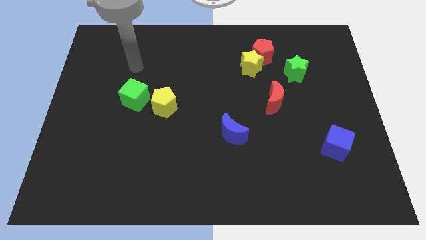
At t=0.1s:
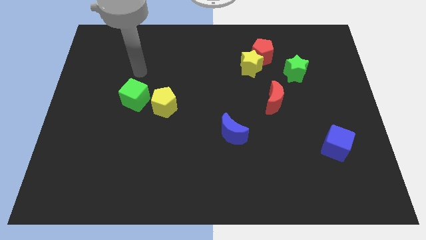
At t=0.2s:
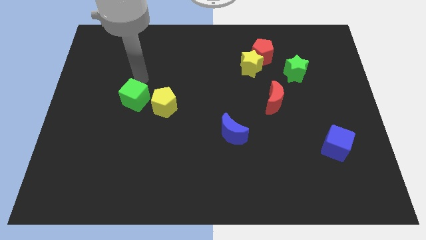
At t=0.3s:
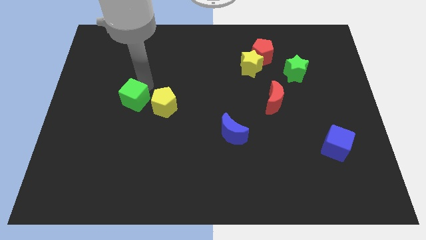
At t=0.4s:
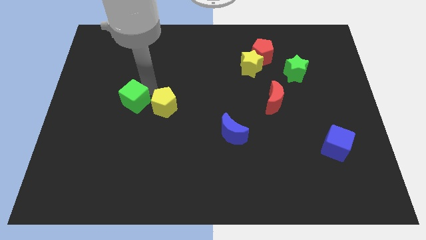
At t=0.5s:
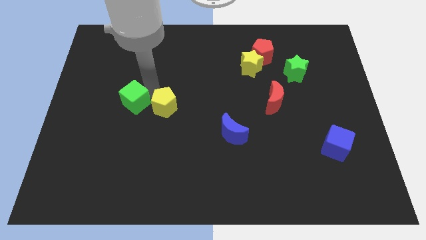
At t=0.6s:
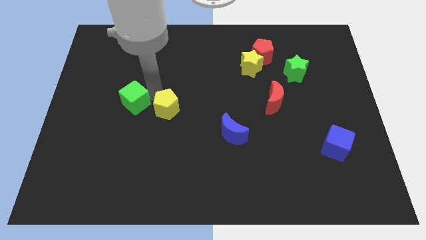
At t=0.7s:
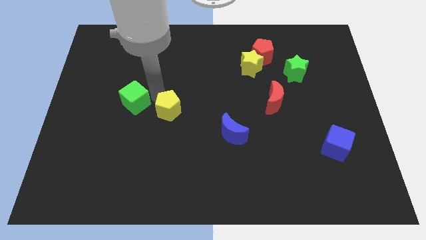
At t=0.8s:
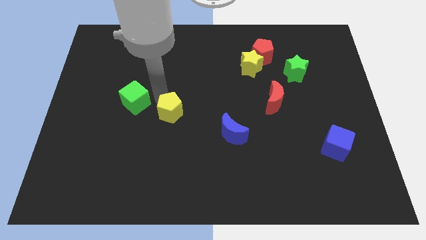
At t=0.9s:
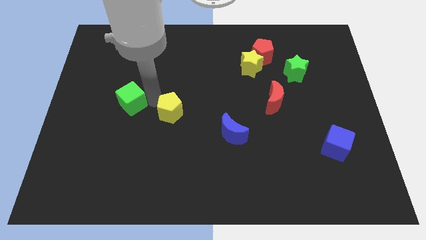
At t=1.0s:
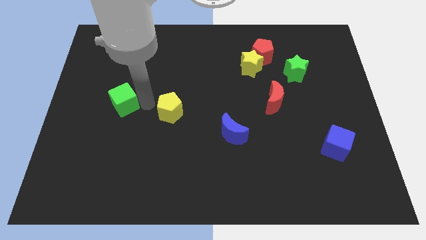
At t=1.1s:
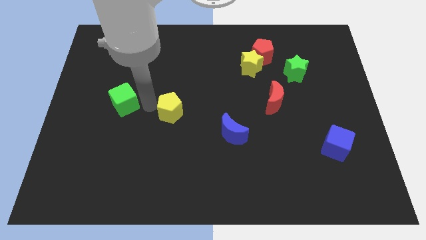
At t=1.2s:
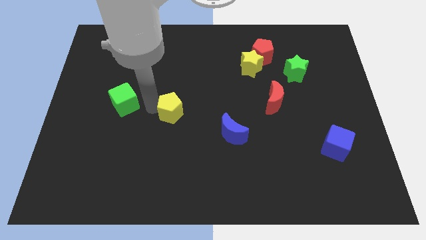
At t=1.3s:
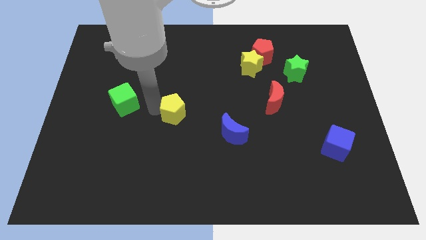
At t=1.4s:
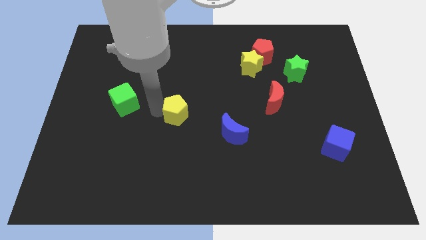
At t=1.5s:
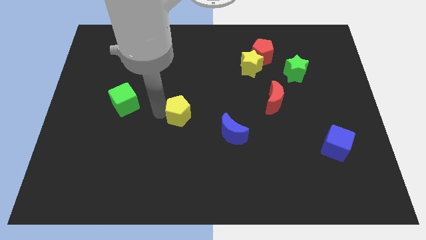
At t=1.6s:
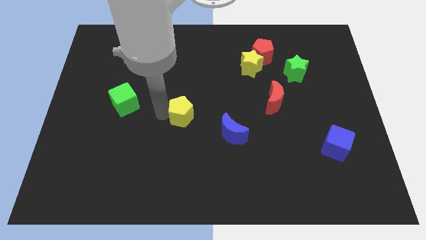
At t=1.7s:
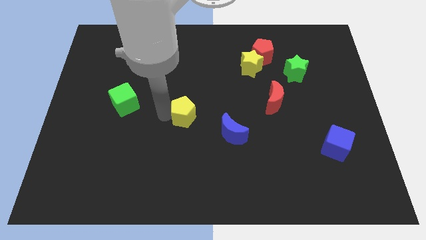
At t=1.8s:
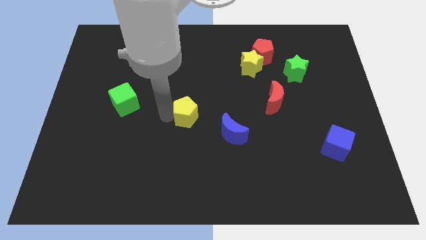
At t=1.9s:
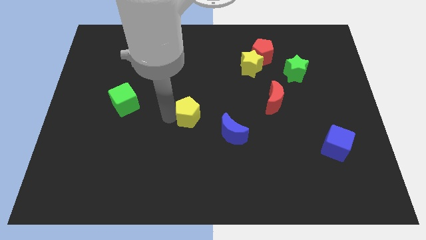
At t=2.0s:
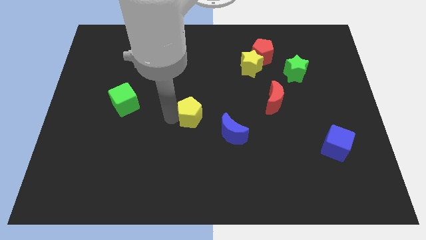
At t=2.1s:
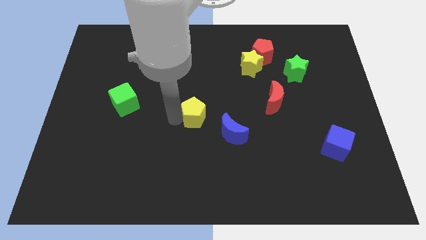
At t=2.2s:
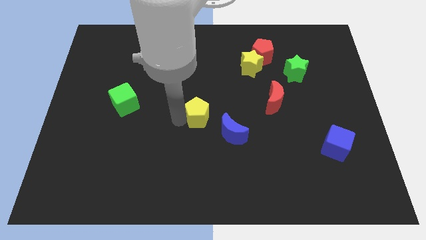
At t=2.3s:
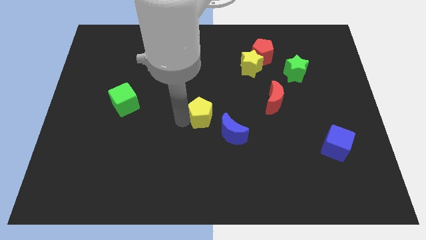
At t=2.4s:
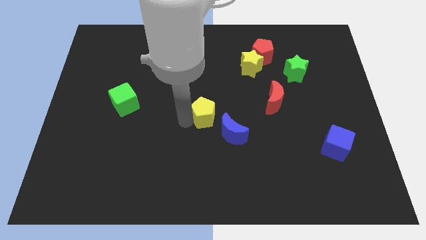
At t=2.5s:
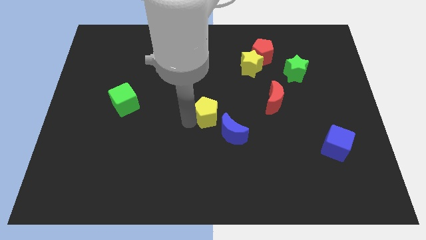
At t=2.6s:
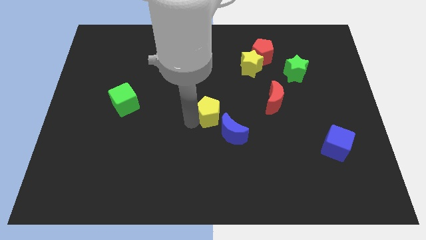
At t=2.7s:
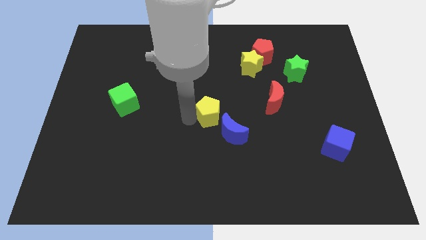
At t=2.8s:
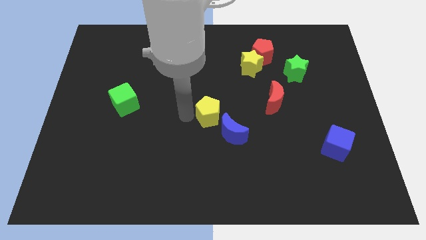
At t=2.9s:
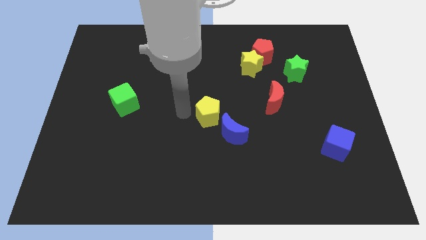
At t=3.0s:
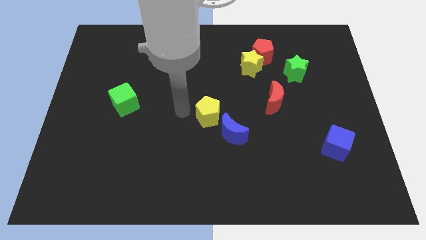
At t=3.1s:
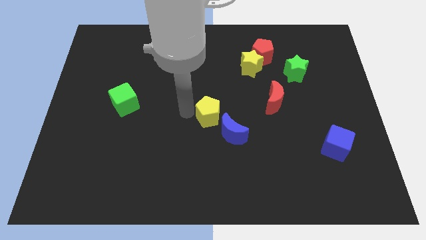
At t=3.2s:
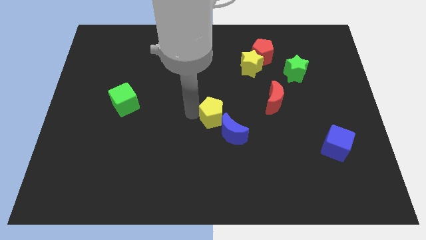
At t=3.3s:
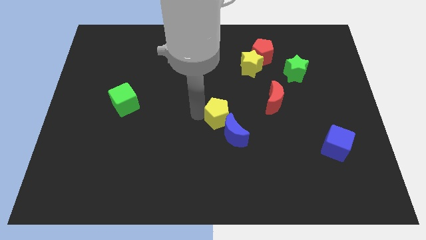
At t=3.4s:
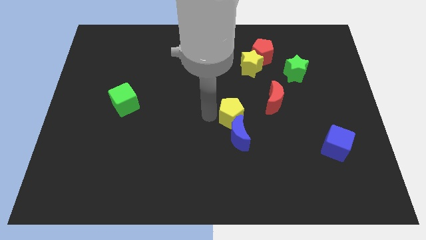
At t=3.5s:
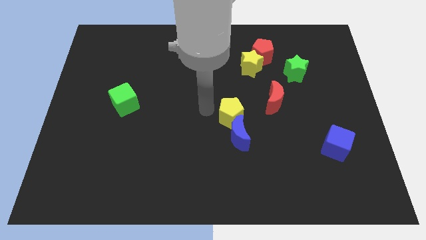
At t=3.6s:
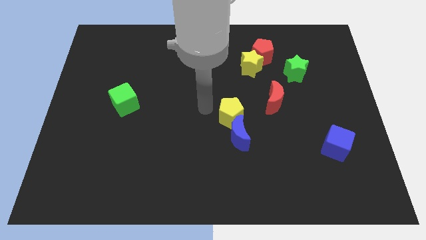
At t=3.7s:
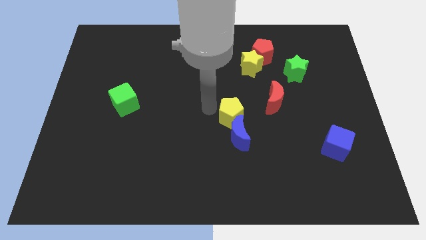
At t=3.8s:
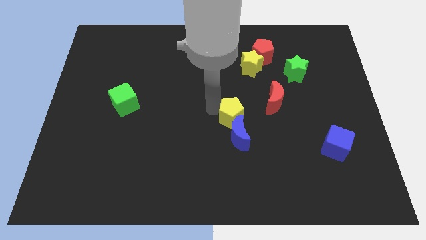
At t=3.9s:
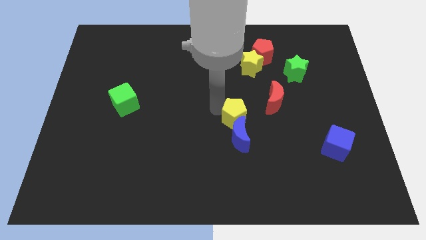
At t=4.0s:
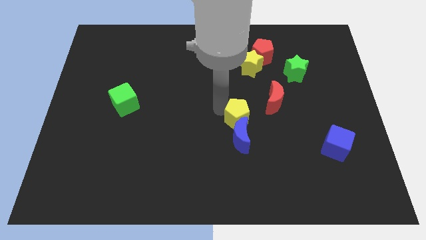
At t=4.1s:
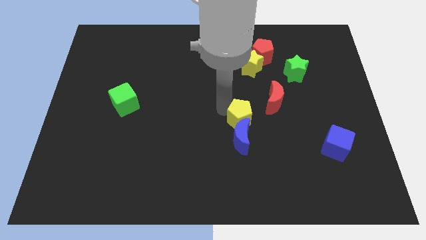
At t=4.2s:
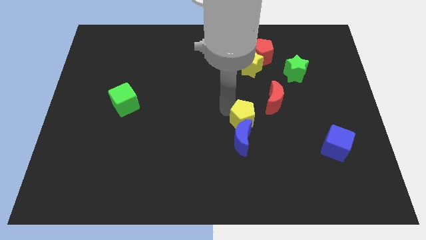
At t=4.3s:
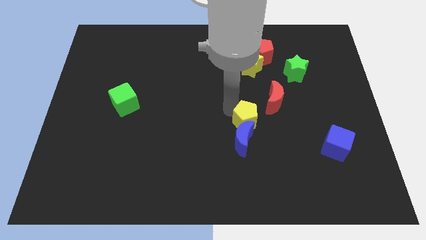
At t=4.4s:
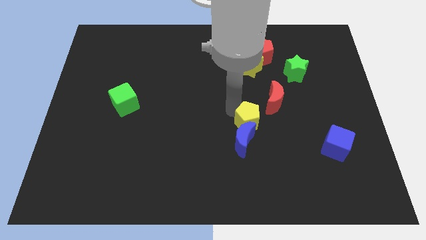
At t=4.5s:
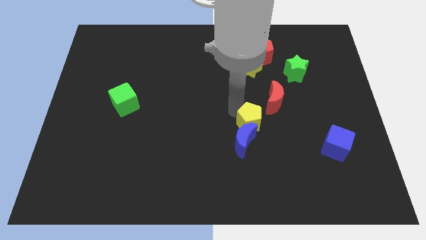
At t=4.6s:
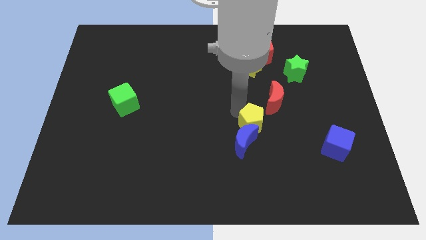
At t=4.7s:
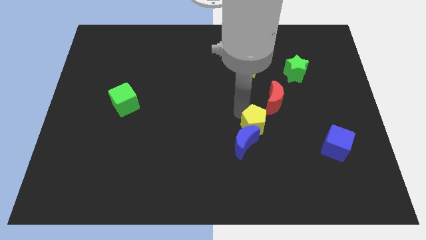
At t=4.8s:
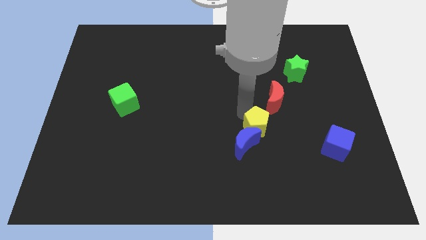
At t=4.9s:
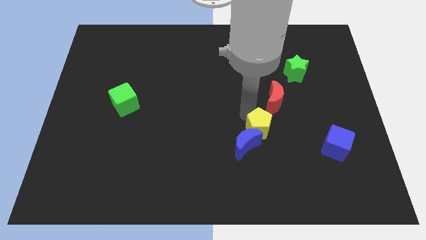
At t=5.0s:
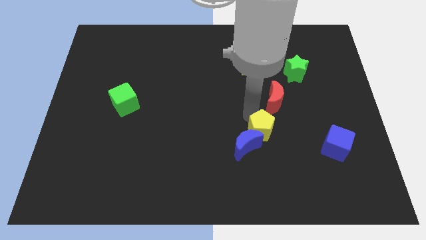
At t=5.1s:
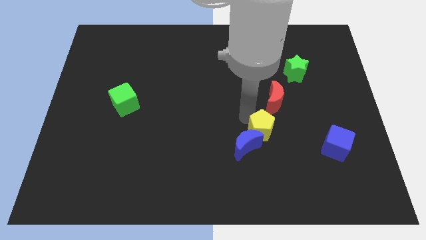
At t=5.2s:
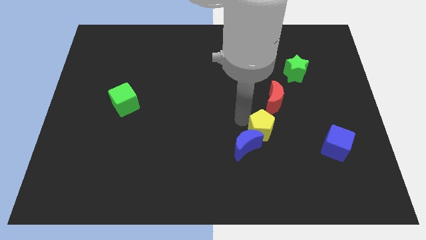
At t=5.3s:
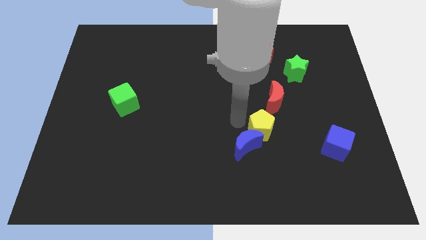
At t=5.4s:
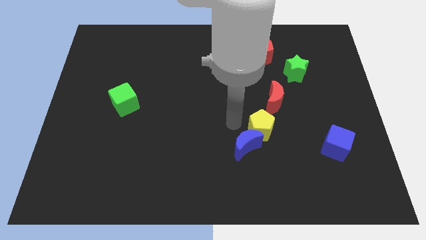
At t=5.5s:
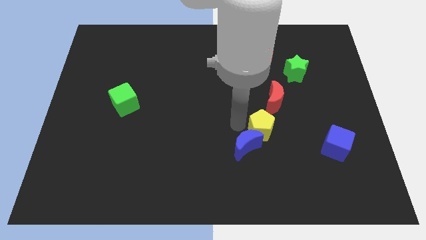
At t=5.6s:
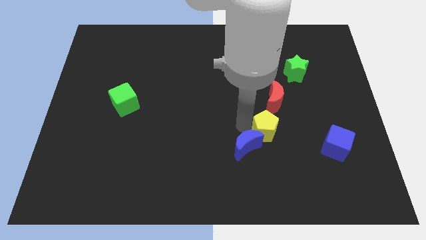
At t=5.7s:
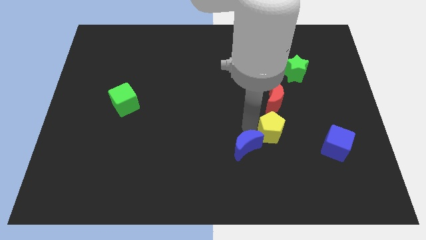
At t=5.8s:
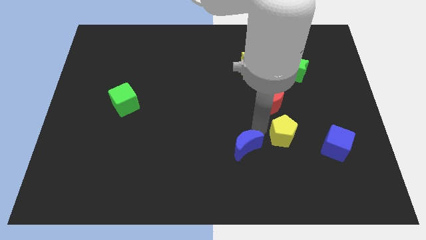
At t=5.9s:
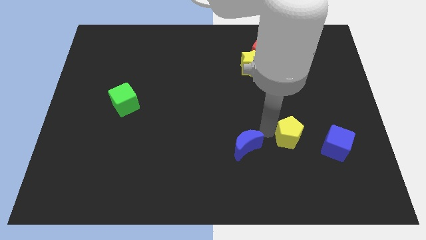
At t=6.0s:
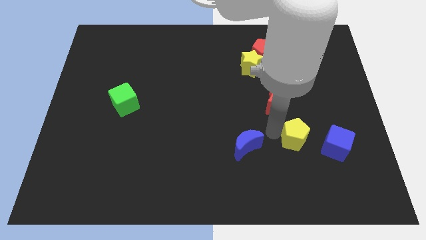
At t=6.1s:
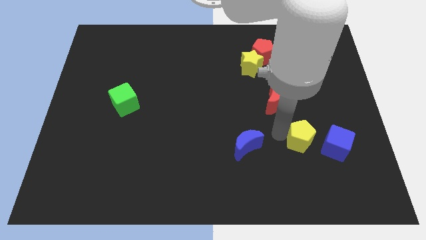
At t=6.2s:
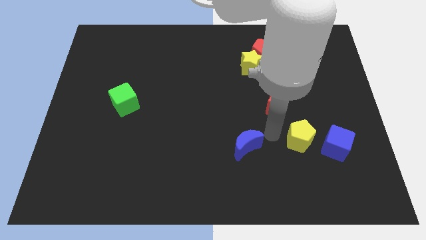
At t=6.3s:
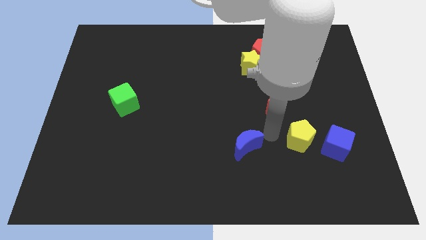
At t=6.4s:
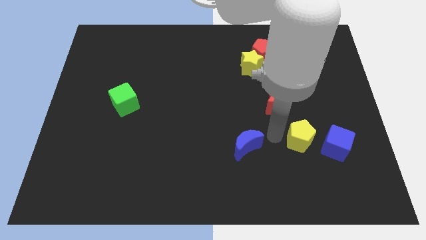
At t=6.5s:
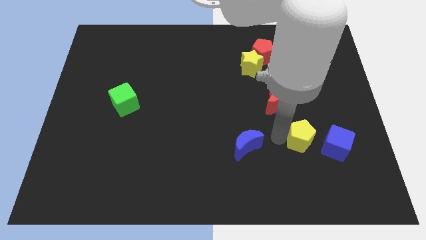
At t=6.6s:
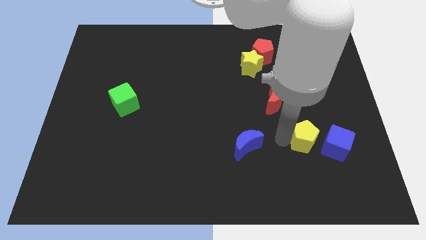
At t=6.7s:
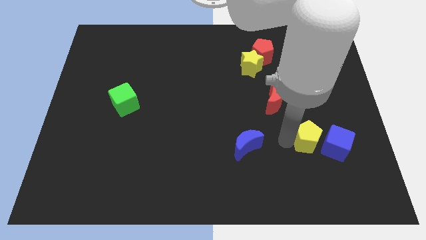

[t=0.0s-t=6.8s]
slide the yellow pentagon to the blue cube

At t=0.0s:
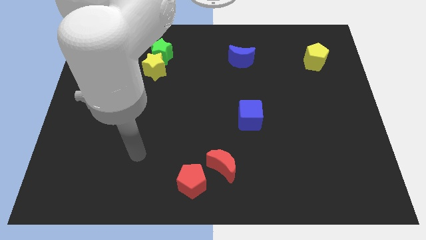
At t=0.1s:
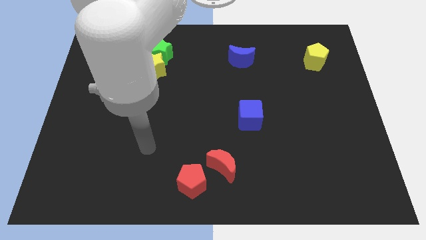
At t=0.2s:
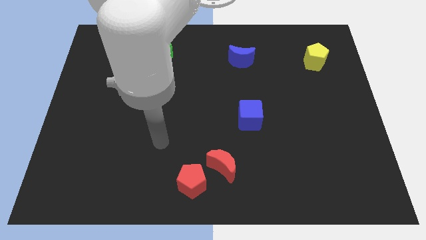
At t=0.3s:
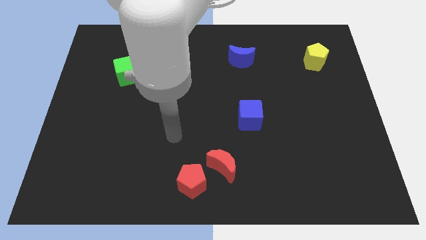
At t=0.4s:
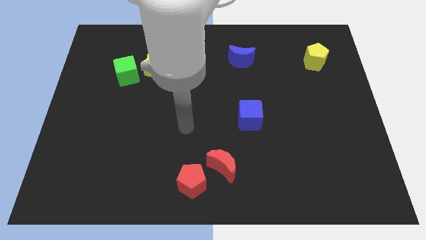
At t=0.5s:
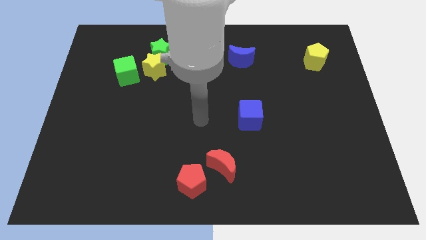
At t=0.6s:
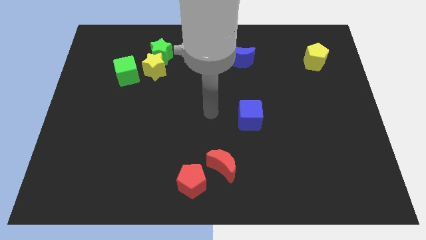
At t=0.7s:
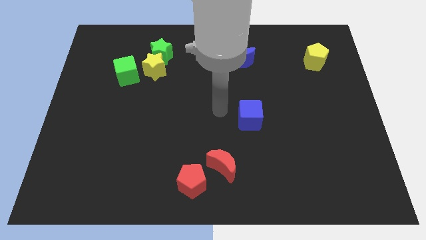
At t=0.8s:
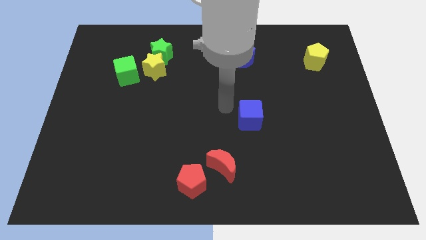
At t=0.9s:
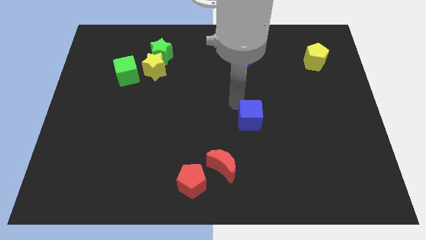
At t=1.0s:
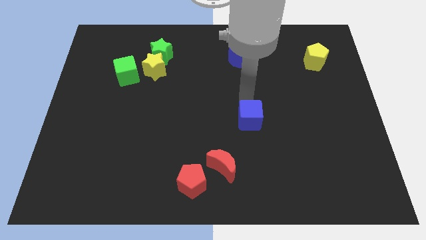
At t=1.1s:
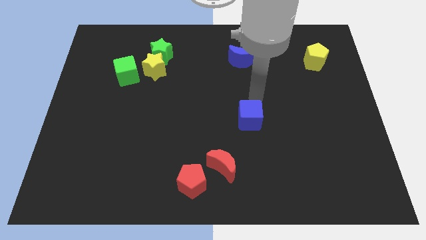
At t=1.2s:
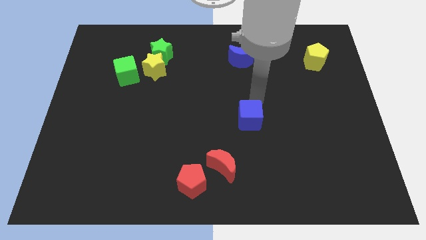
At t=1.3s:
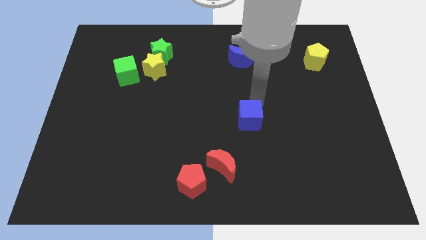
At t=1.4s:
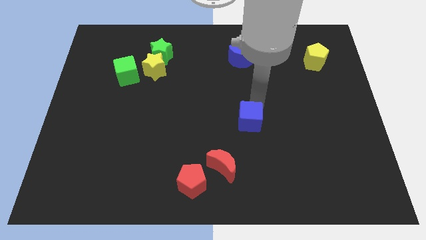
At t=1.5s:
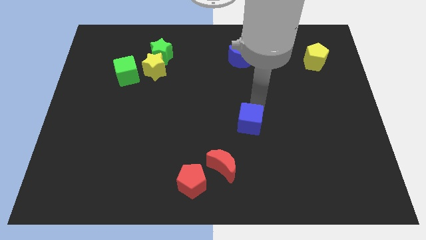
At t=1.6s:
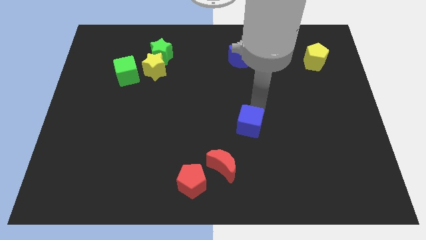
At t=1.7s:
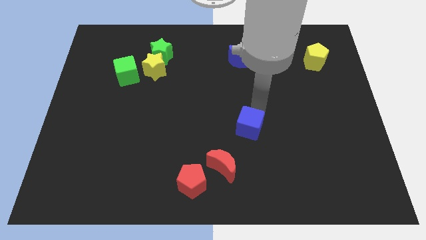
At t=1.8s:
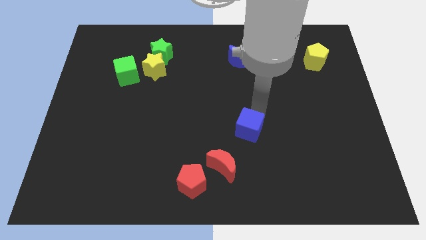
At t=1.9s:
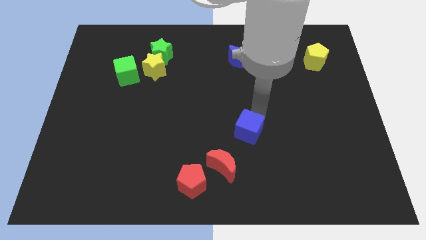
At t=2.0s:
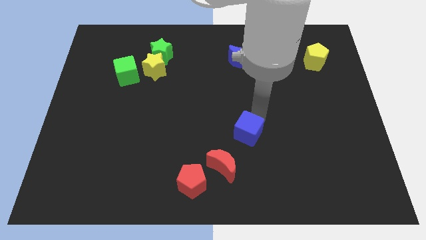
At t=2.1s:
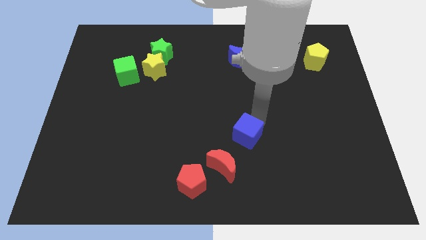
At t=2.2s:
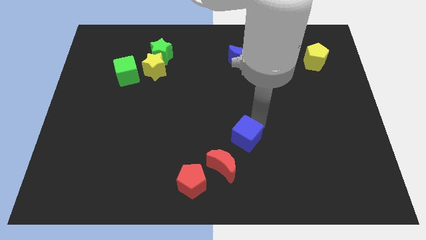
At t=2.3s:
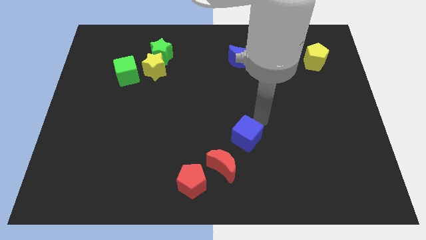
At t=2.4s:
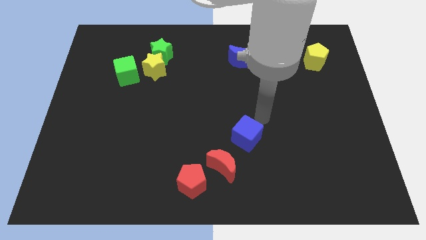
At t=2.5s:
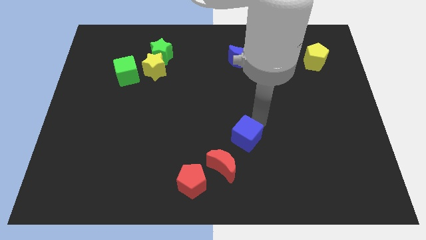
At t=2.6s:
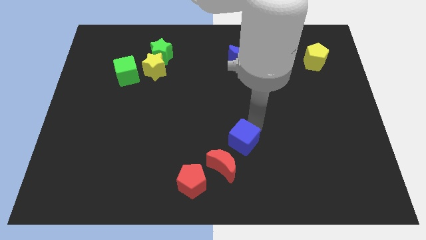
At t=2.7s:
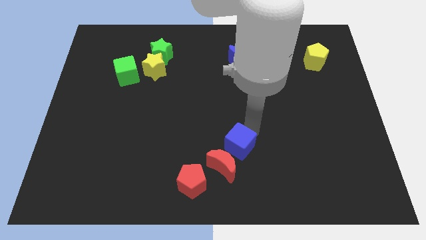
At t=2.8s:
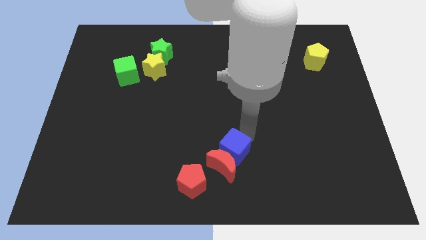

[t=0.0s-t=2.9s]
put the blue cube to the red moon
